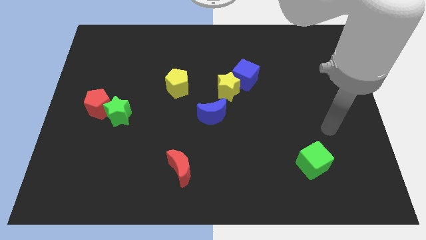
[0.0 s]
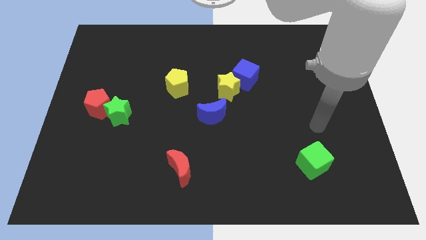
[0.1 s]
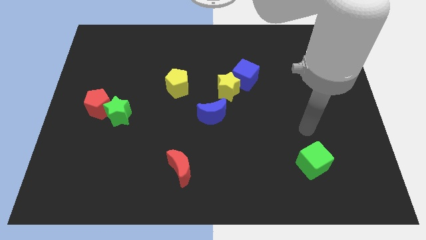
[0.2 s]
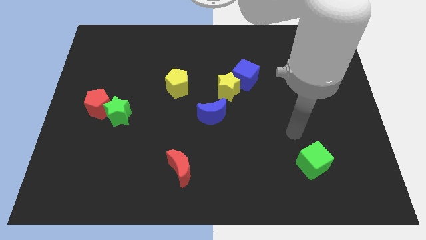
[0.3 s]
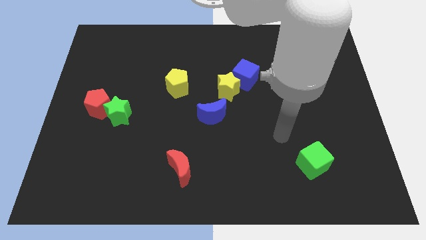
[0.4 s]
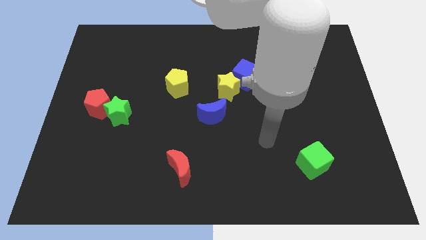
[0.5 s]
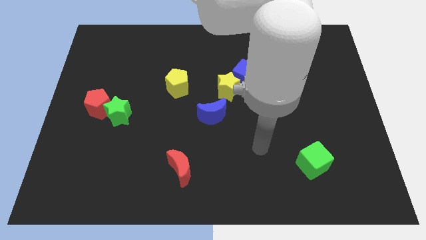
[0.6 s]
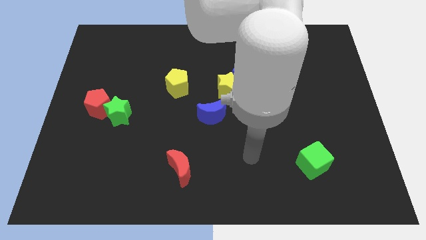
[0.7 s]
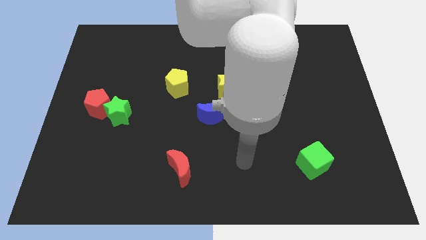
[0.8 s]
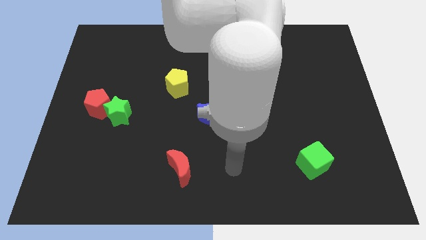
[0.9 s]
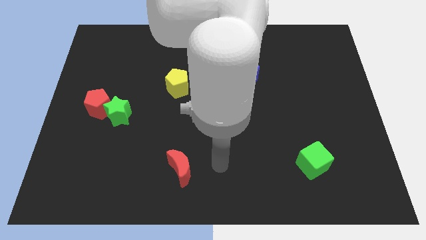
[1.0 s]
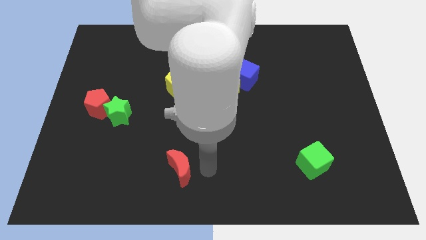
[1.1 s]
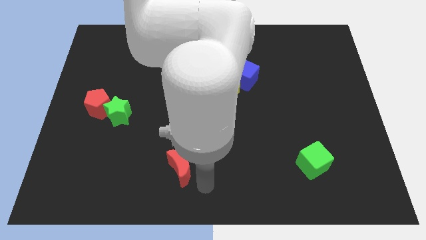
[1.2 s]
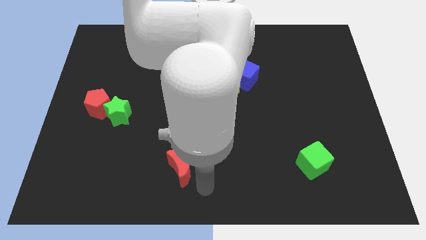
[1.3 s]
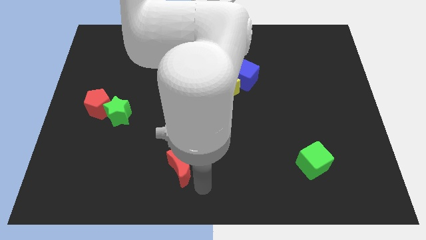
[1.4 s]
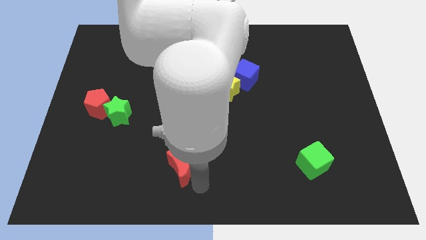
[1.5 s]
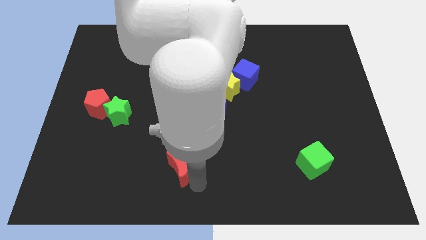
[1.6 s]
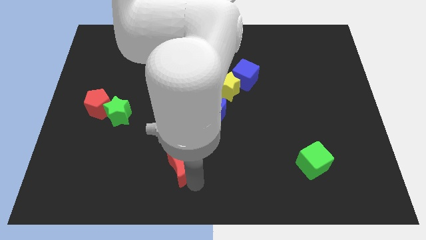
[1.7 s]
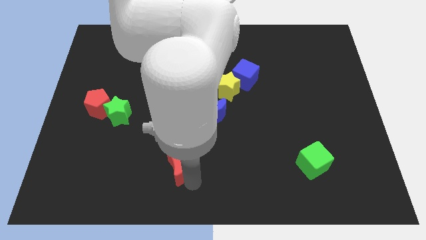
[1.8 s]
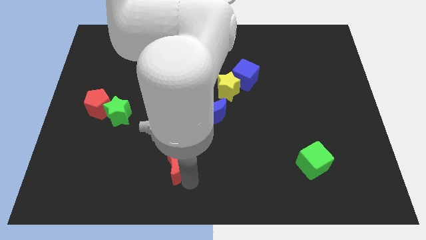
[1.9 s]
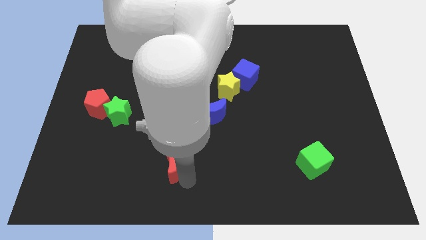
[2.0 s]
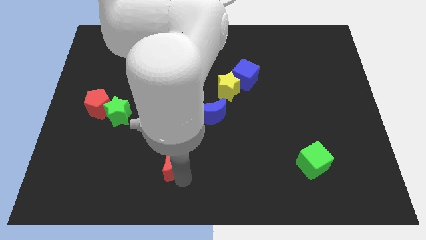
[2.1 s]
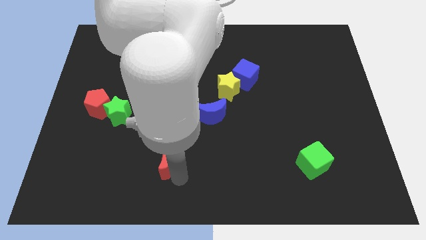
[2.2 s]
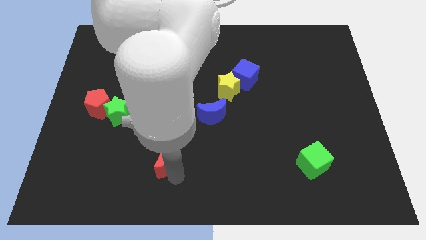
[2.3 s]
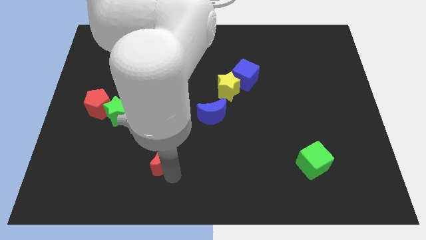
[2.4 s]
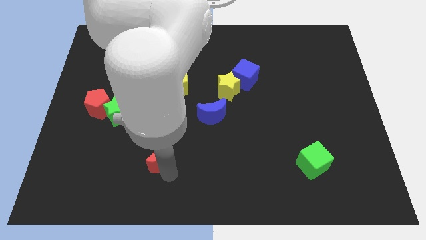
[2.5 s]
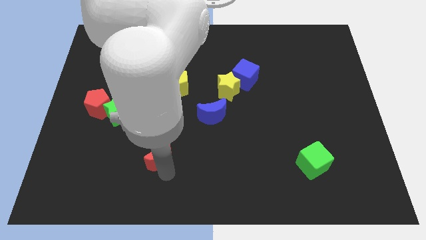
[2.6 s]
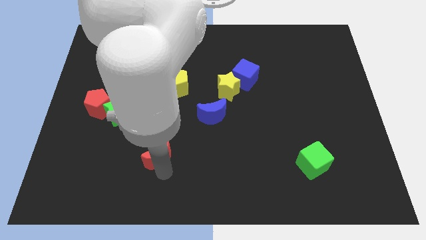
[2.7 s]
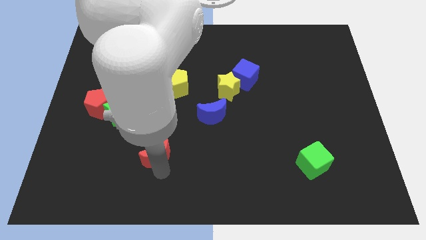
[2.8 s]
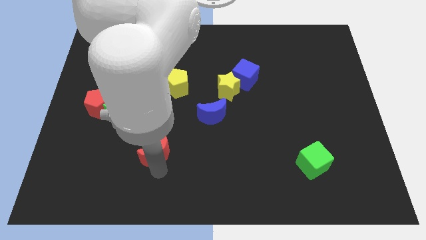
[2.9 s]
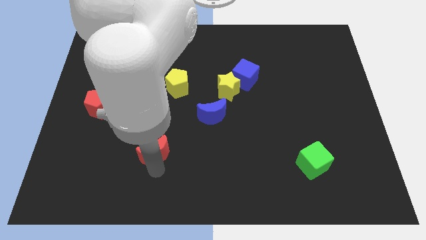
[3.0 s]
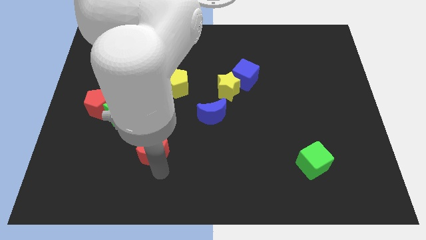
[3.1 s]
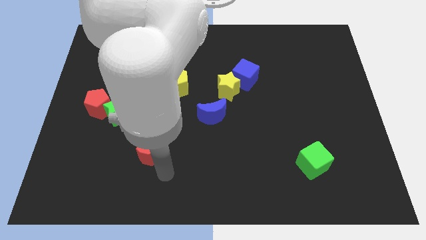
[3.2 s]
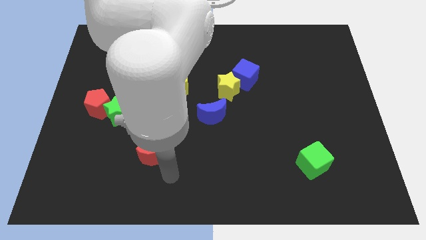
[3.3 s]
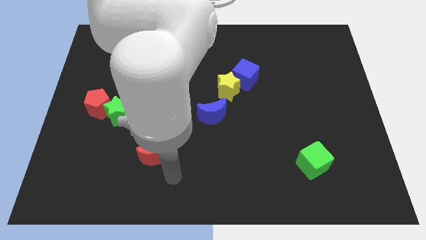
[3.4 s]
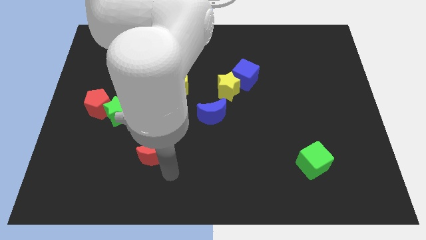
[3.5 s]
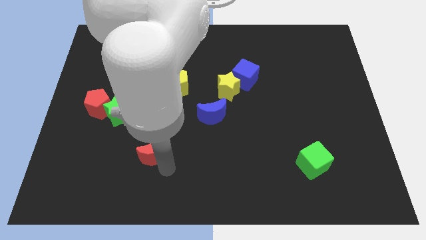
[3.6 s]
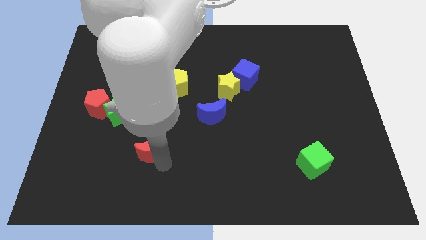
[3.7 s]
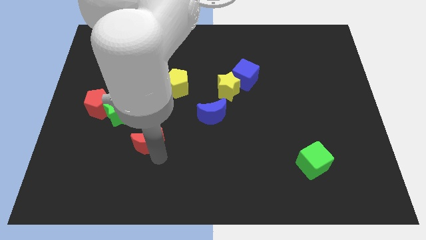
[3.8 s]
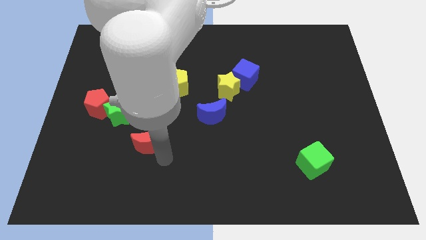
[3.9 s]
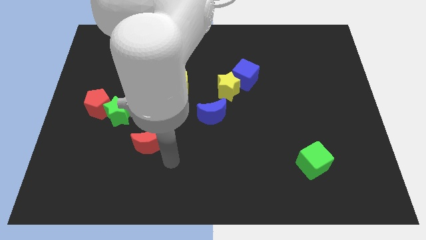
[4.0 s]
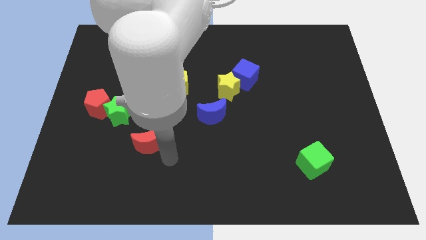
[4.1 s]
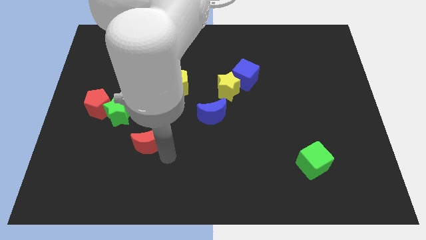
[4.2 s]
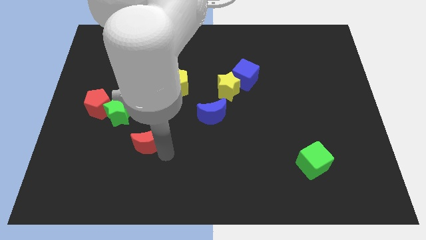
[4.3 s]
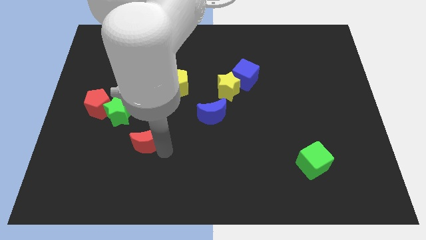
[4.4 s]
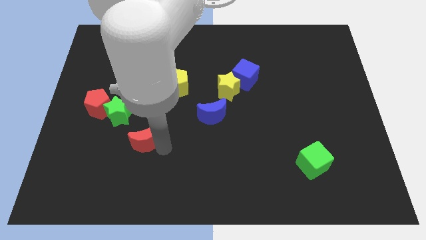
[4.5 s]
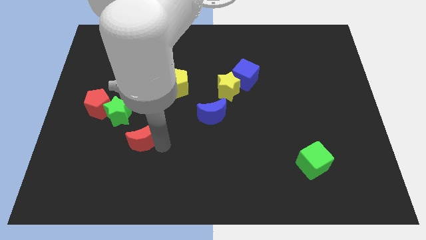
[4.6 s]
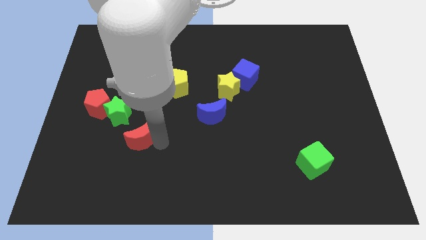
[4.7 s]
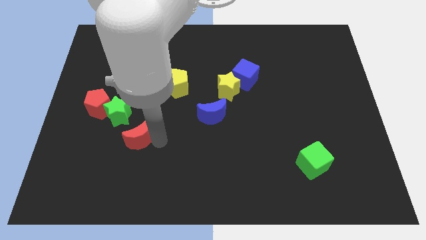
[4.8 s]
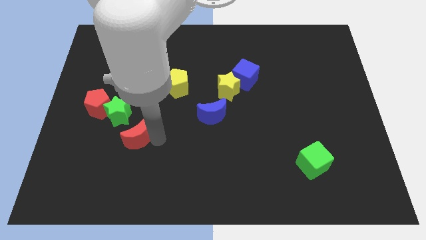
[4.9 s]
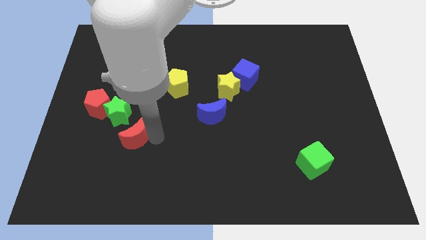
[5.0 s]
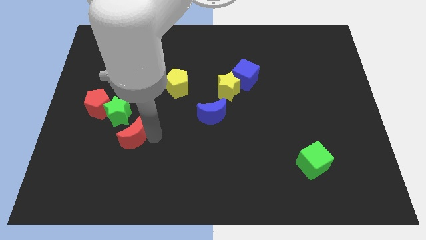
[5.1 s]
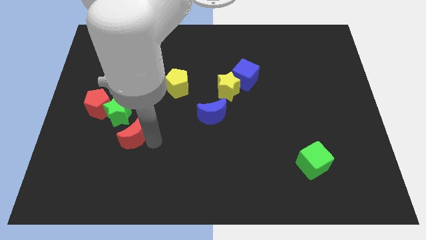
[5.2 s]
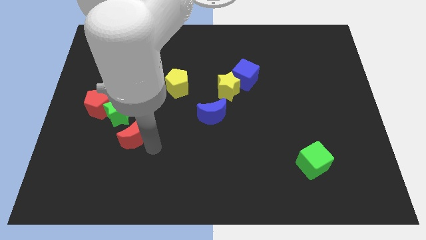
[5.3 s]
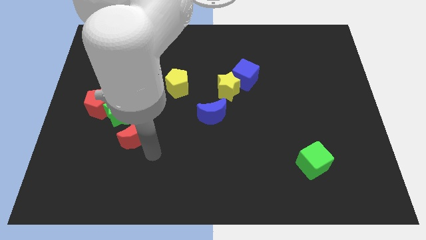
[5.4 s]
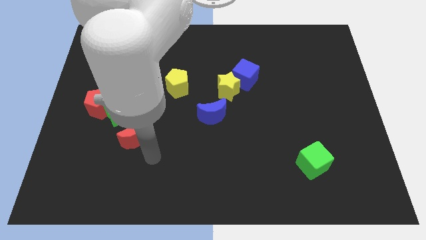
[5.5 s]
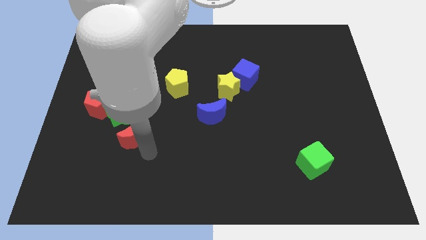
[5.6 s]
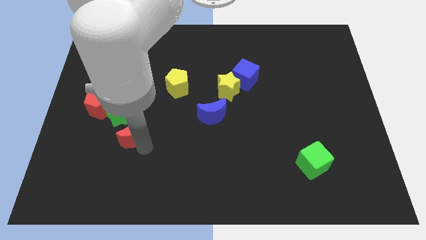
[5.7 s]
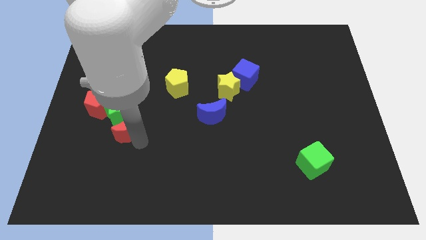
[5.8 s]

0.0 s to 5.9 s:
move the red moon next to the green star

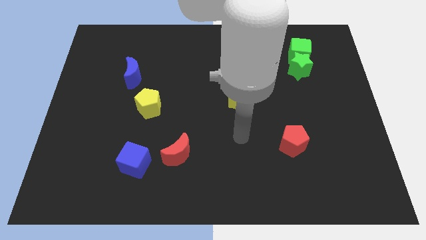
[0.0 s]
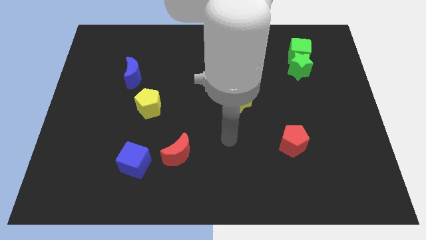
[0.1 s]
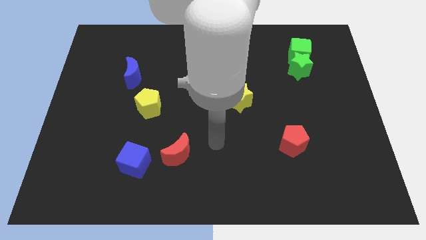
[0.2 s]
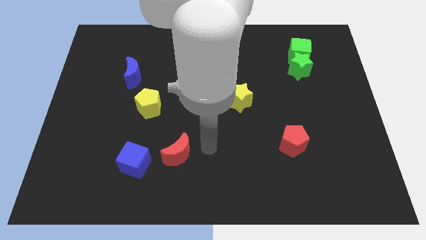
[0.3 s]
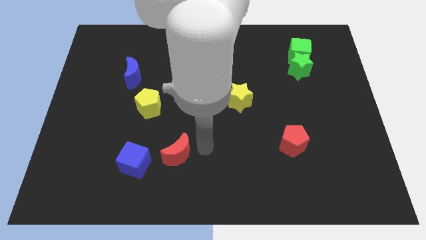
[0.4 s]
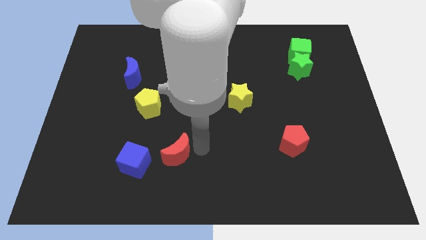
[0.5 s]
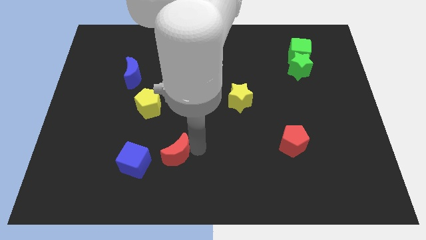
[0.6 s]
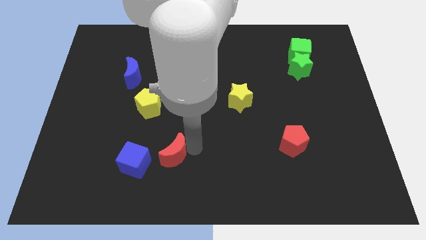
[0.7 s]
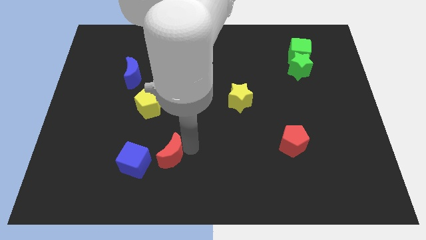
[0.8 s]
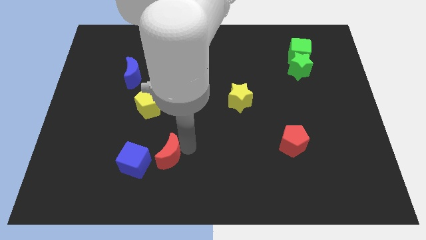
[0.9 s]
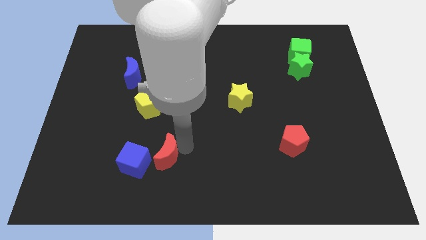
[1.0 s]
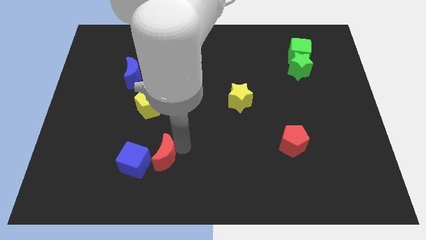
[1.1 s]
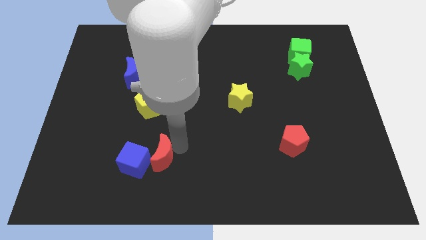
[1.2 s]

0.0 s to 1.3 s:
push the red moon close to the blue cube
